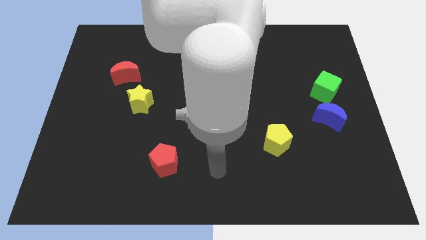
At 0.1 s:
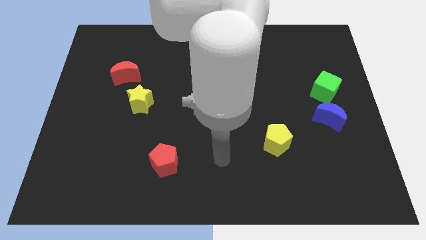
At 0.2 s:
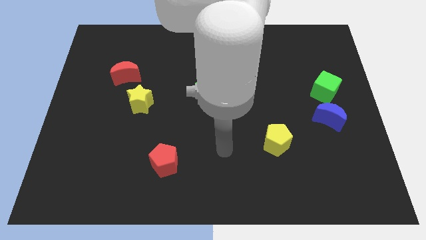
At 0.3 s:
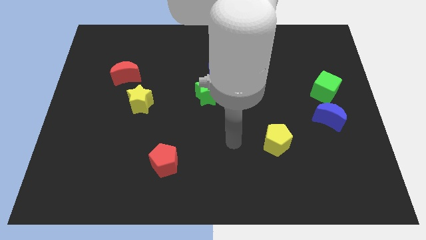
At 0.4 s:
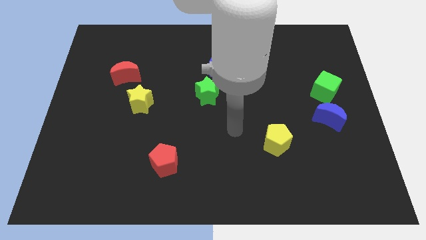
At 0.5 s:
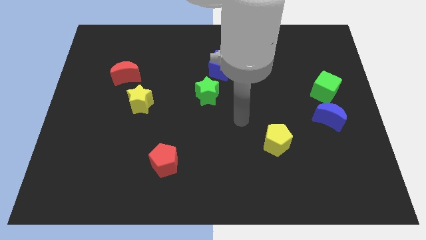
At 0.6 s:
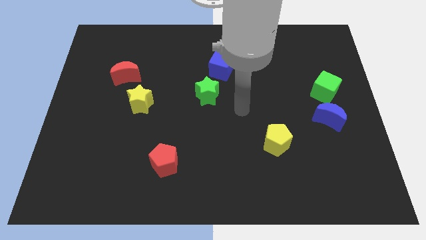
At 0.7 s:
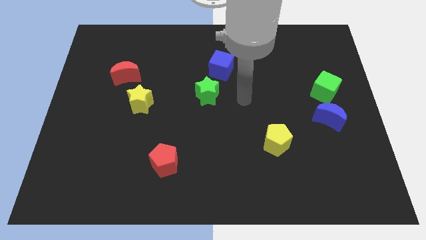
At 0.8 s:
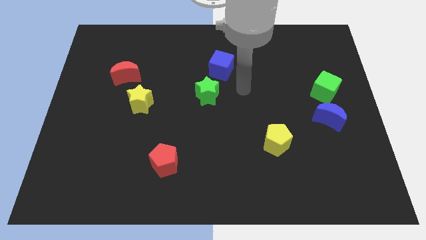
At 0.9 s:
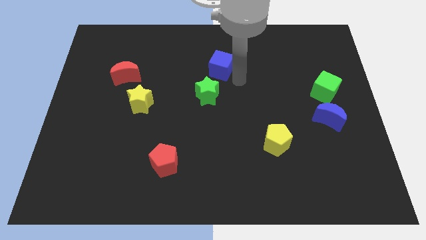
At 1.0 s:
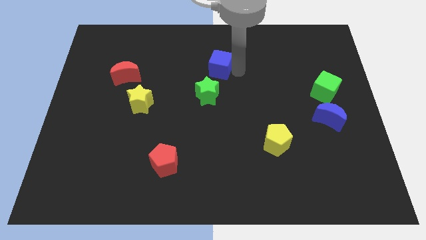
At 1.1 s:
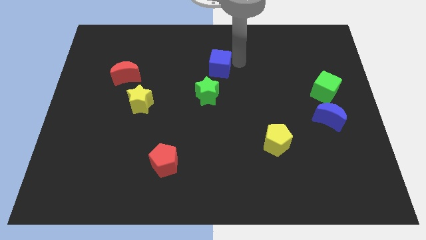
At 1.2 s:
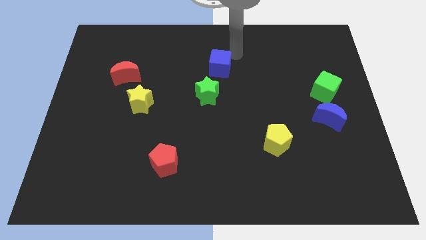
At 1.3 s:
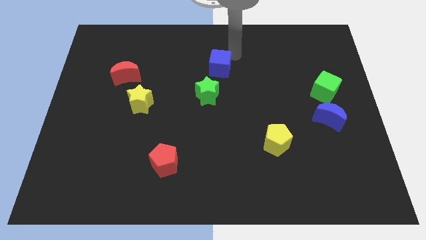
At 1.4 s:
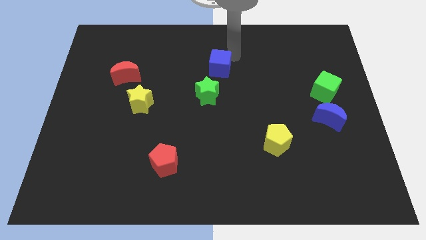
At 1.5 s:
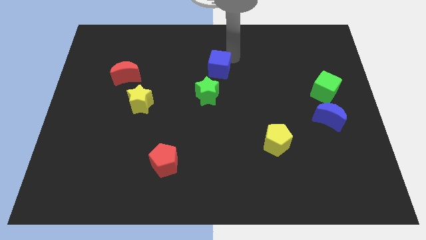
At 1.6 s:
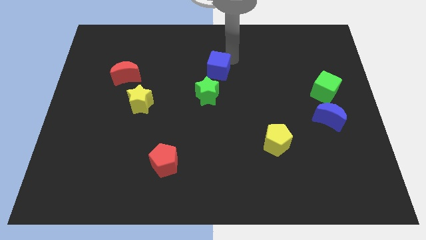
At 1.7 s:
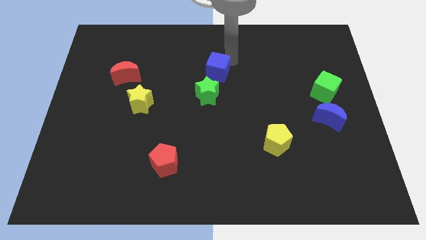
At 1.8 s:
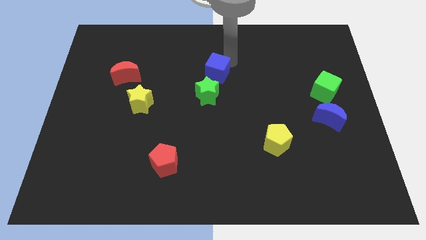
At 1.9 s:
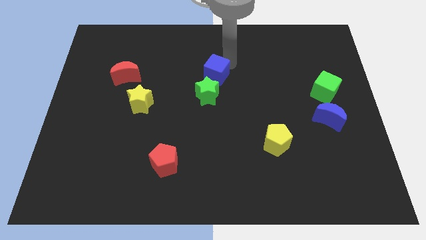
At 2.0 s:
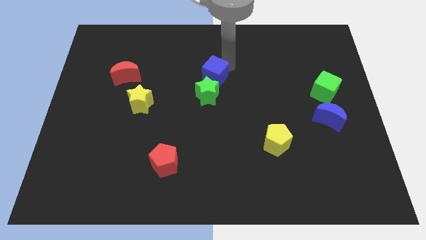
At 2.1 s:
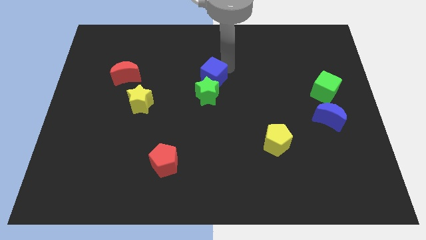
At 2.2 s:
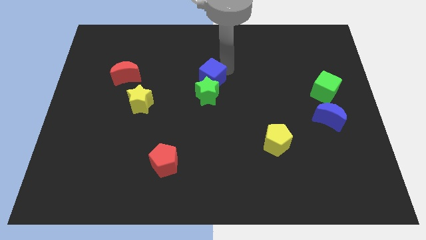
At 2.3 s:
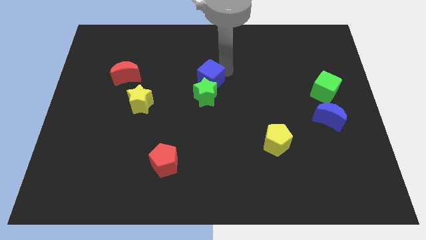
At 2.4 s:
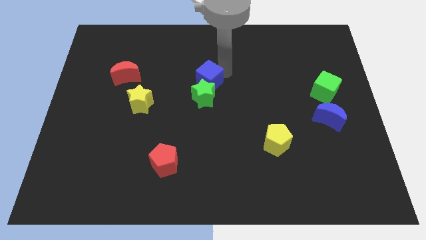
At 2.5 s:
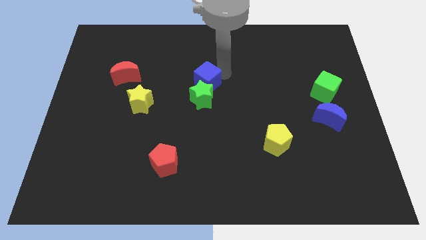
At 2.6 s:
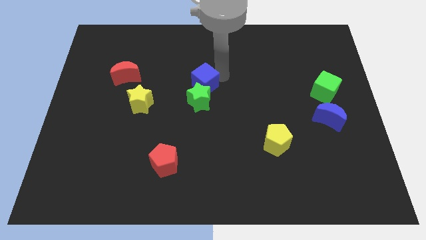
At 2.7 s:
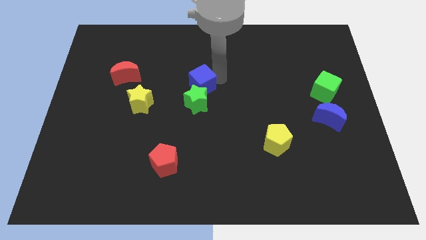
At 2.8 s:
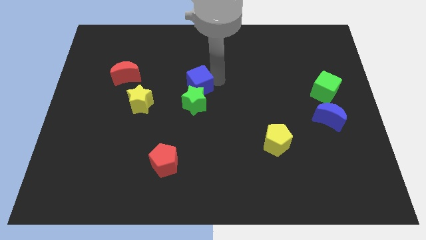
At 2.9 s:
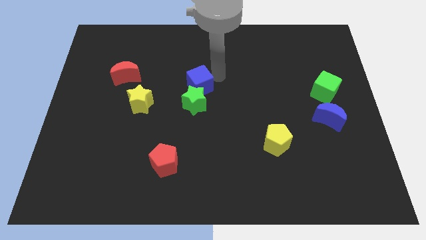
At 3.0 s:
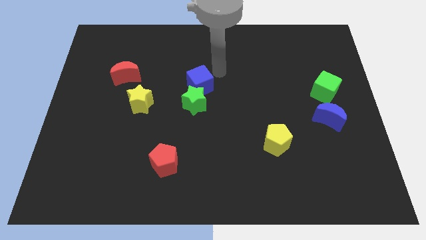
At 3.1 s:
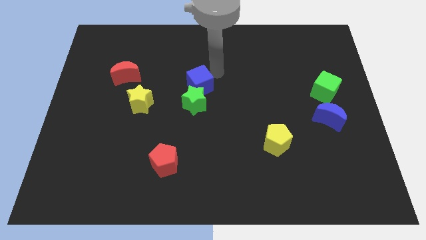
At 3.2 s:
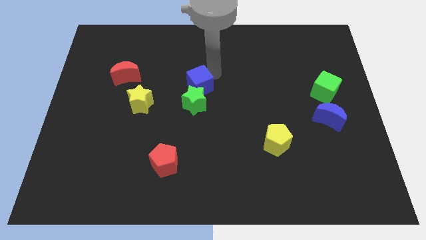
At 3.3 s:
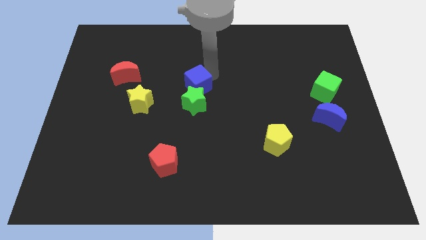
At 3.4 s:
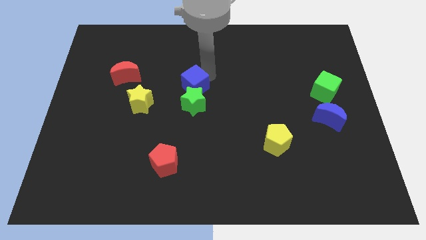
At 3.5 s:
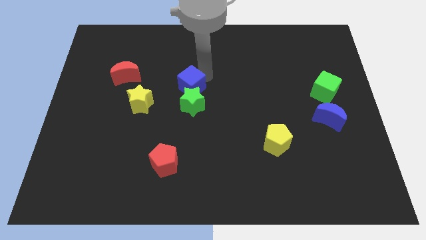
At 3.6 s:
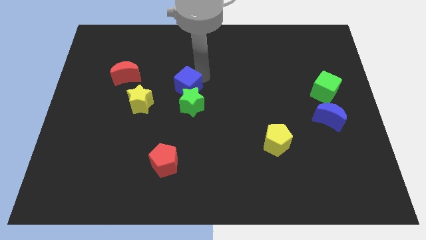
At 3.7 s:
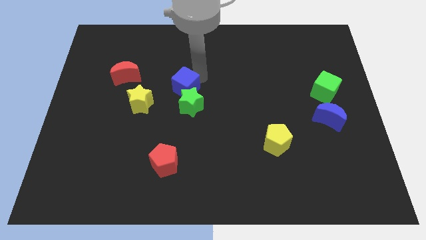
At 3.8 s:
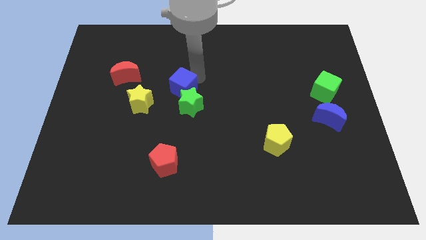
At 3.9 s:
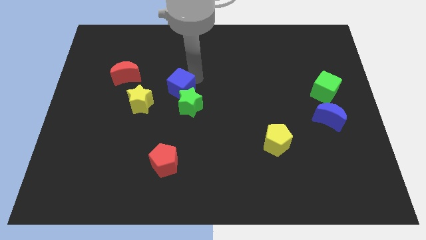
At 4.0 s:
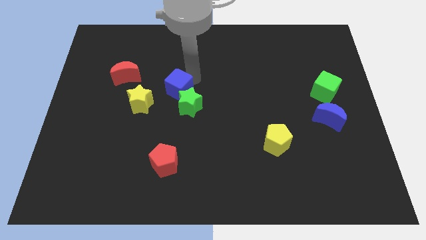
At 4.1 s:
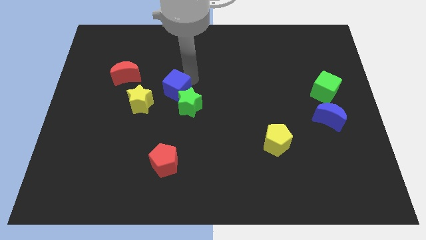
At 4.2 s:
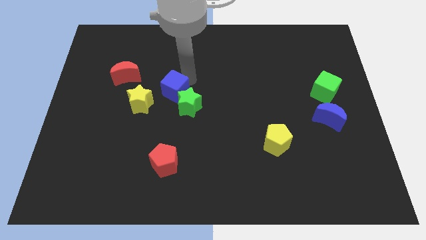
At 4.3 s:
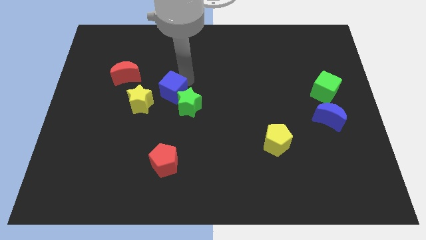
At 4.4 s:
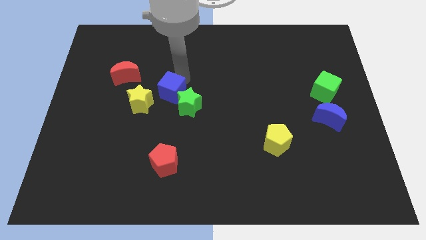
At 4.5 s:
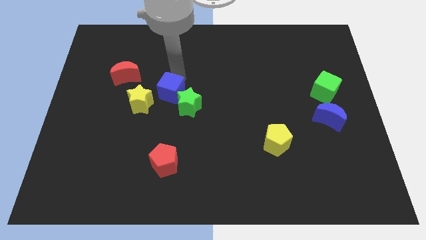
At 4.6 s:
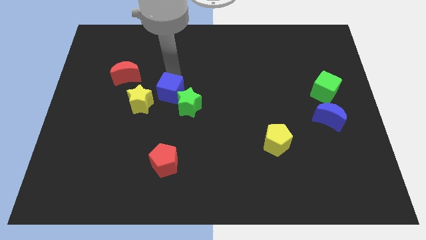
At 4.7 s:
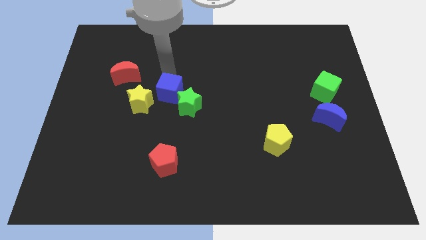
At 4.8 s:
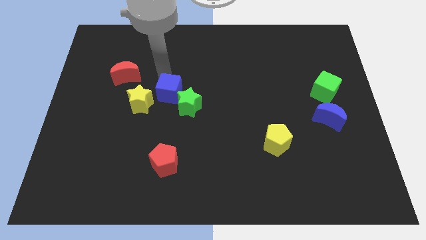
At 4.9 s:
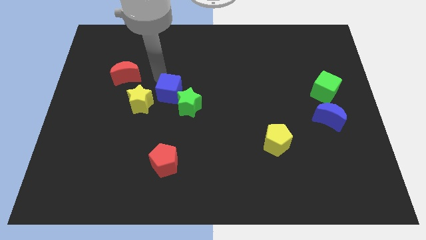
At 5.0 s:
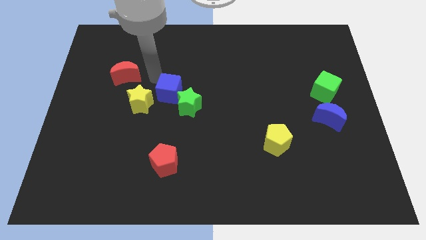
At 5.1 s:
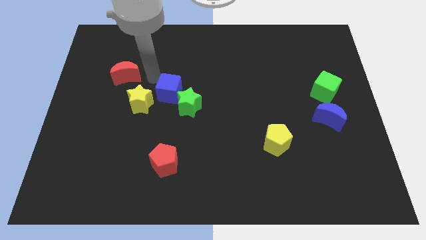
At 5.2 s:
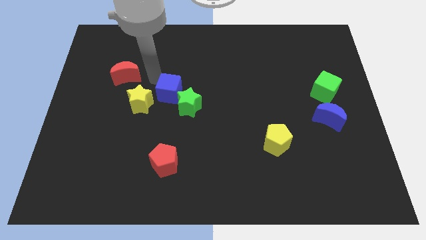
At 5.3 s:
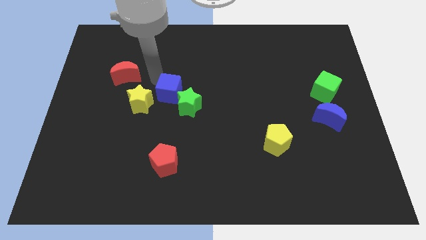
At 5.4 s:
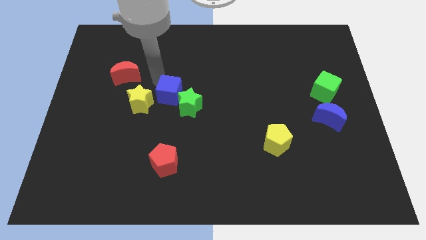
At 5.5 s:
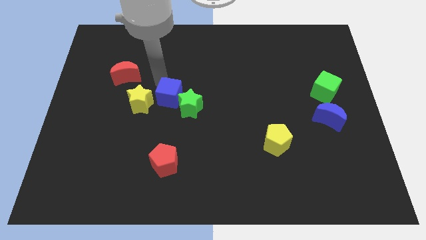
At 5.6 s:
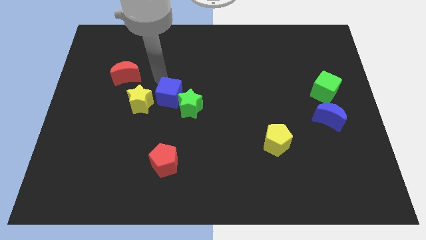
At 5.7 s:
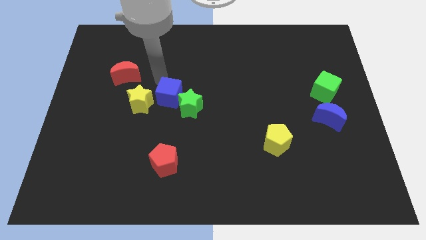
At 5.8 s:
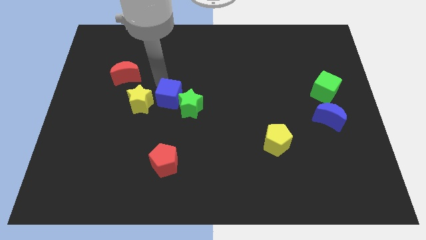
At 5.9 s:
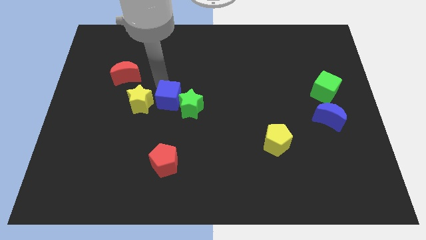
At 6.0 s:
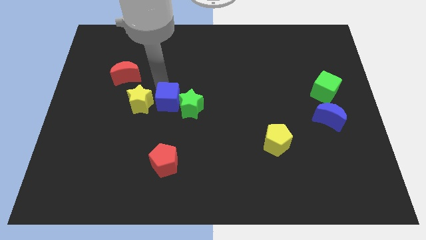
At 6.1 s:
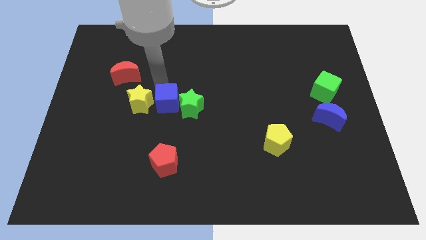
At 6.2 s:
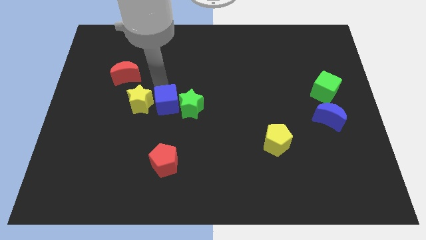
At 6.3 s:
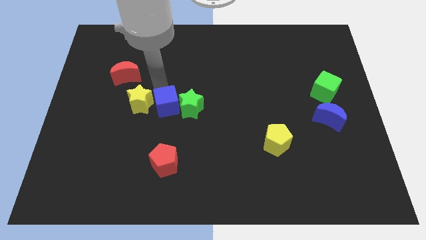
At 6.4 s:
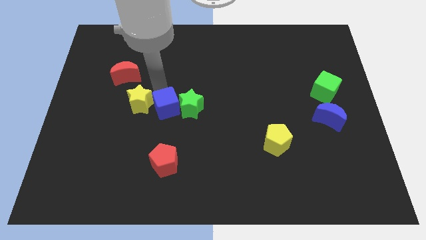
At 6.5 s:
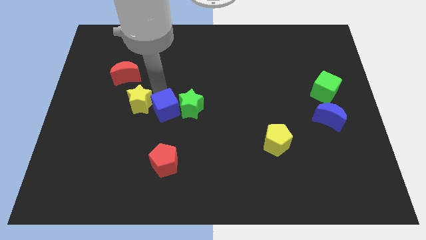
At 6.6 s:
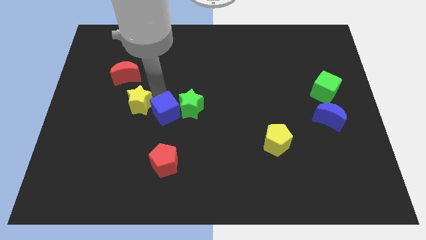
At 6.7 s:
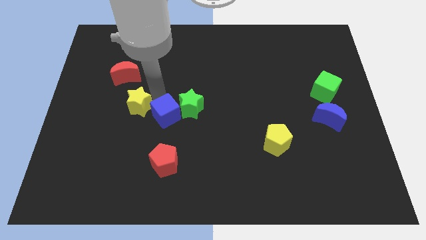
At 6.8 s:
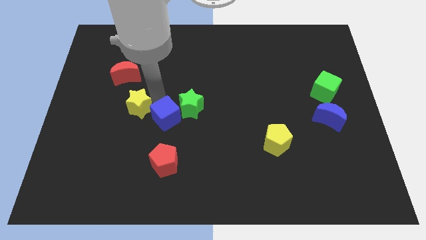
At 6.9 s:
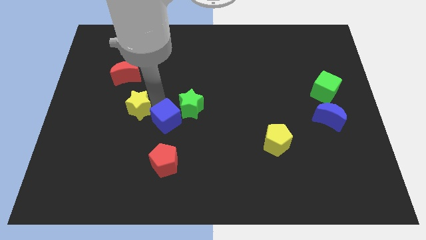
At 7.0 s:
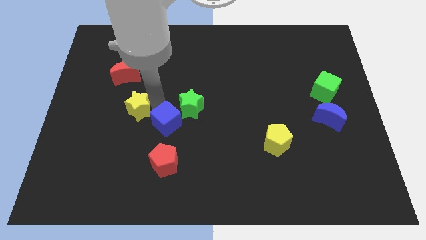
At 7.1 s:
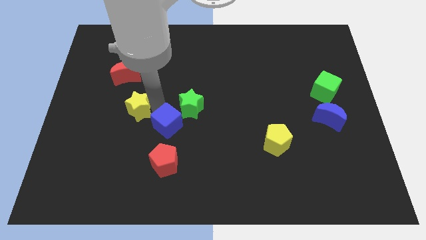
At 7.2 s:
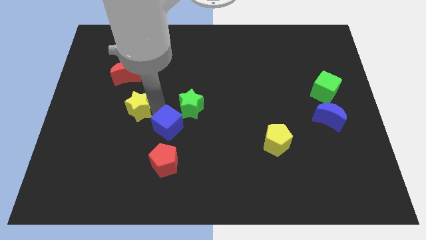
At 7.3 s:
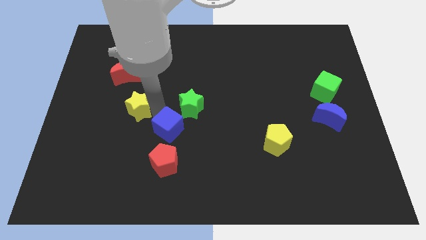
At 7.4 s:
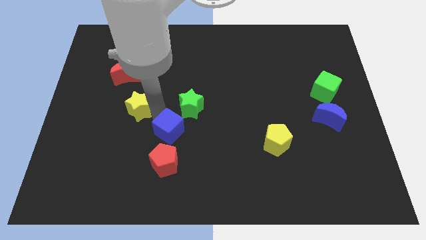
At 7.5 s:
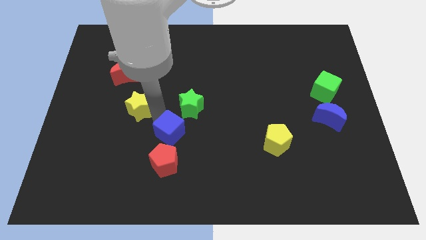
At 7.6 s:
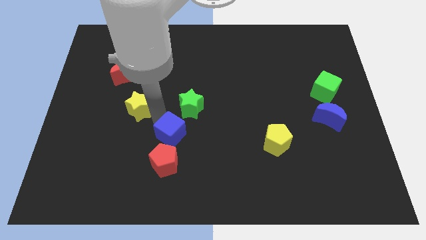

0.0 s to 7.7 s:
put the blue cube to the top right side of the red pentagon
